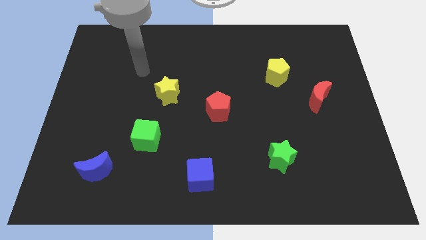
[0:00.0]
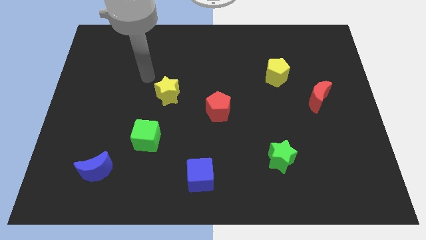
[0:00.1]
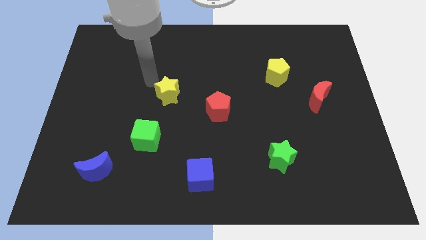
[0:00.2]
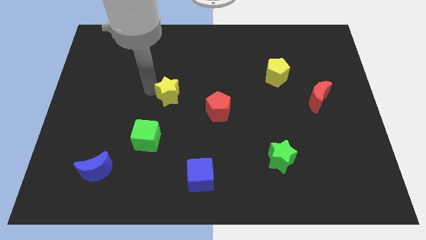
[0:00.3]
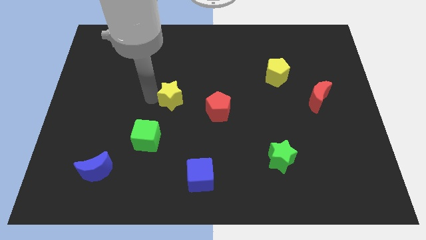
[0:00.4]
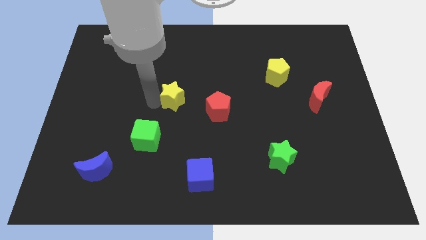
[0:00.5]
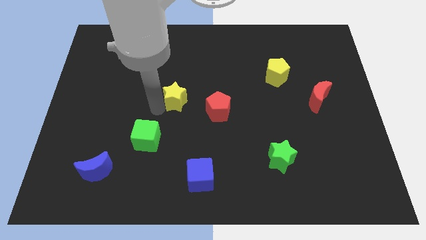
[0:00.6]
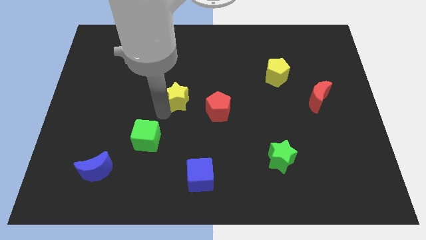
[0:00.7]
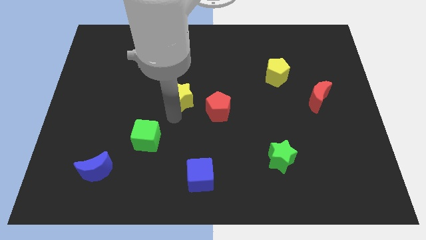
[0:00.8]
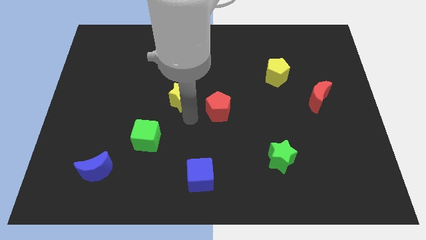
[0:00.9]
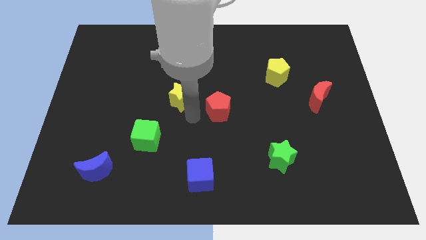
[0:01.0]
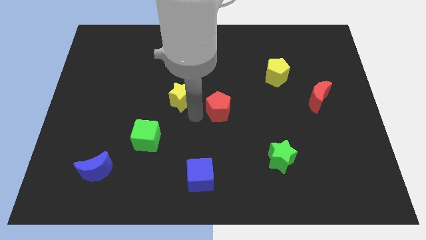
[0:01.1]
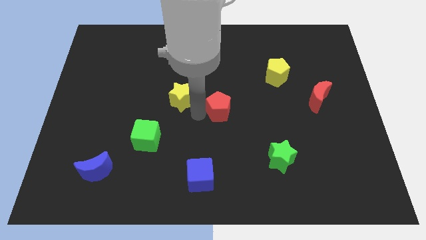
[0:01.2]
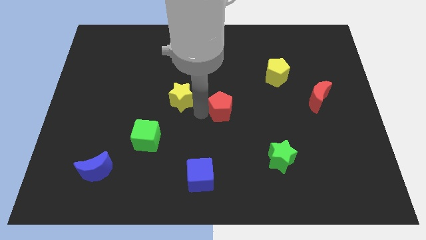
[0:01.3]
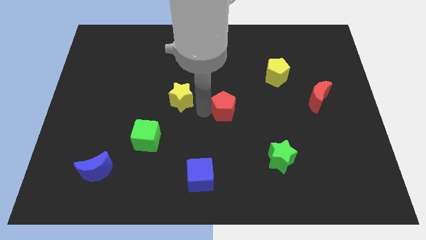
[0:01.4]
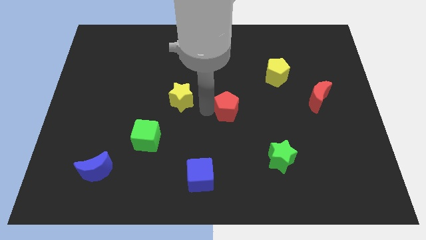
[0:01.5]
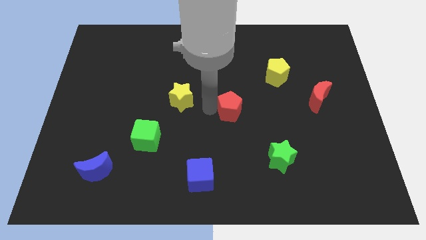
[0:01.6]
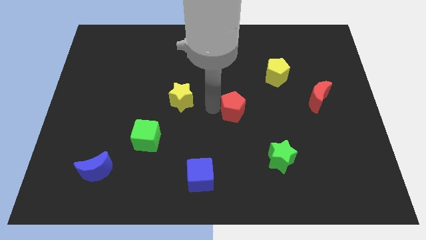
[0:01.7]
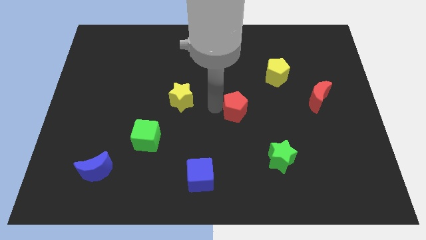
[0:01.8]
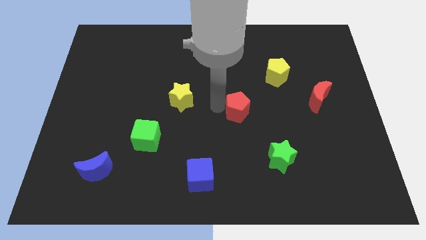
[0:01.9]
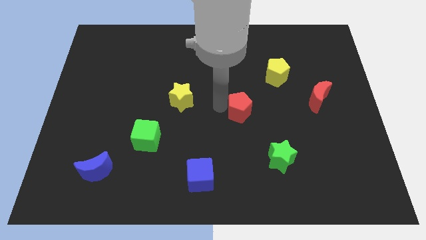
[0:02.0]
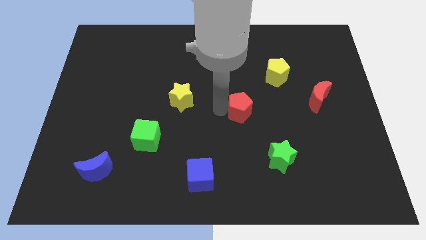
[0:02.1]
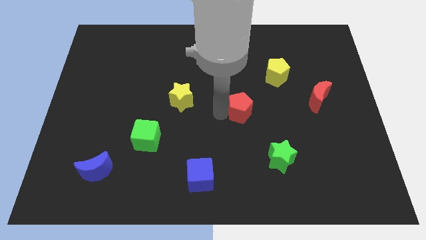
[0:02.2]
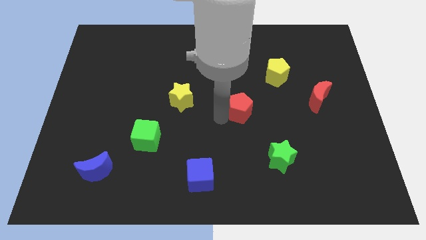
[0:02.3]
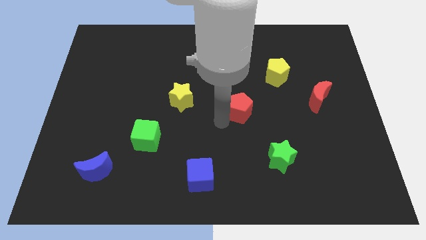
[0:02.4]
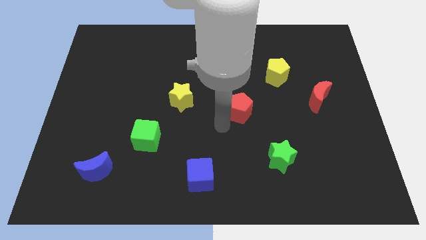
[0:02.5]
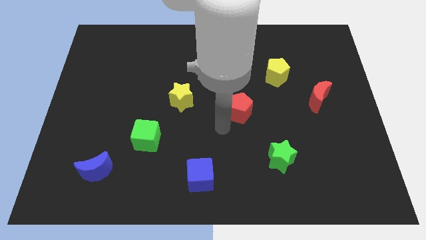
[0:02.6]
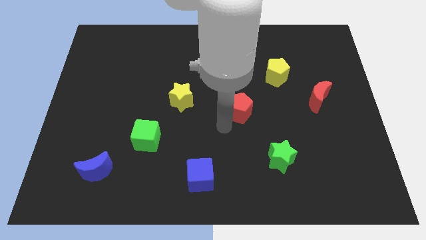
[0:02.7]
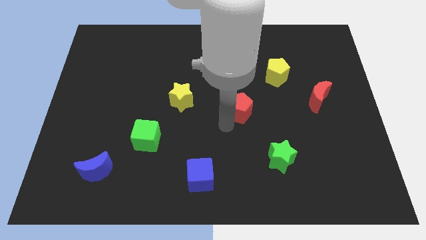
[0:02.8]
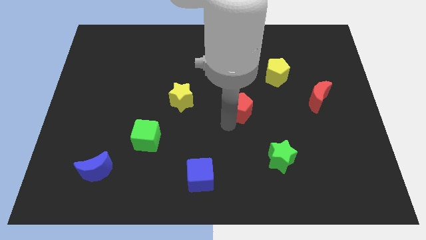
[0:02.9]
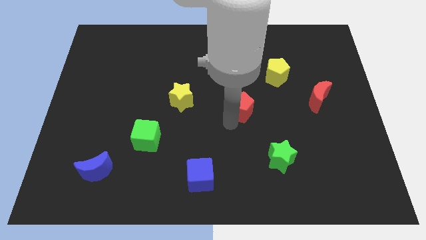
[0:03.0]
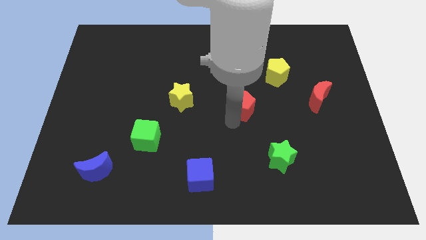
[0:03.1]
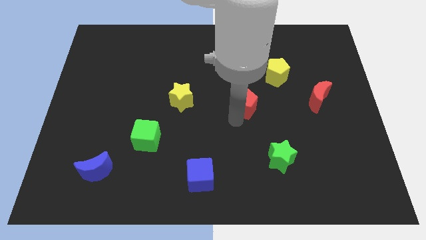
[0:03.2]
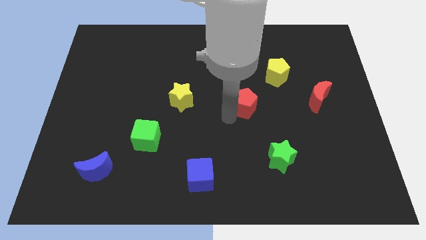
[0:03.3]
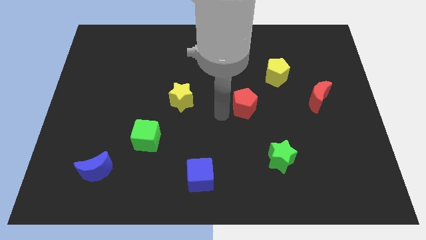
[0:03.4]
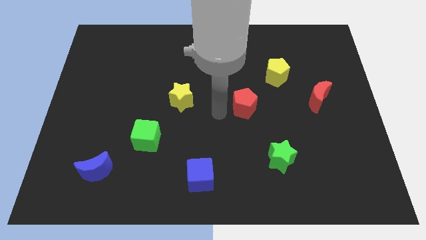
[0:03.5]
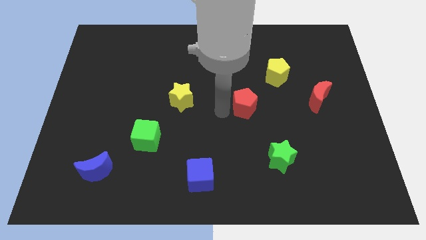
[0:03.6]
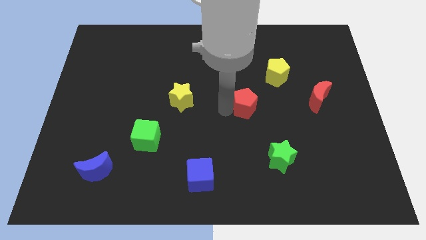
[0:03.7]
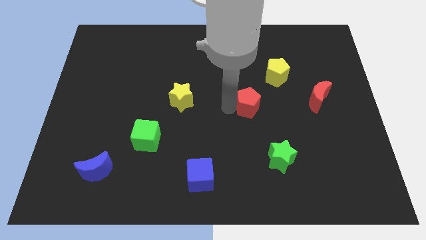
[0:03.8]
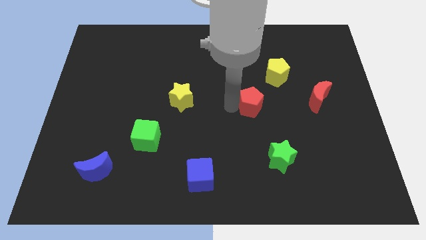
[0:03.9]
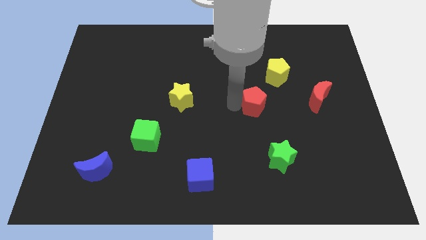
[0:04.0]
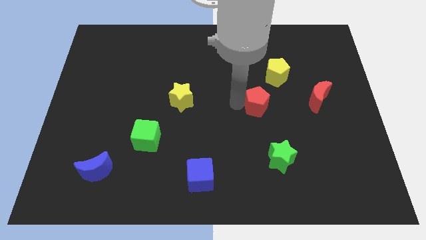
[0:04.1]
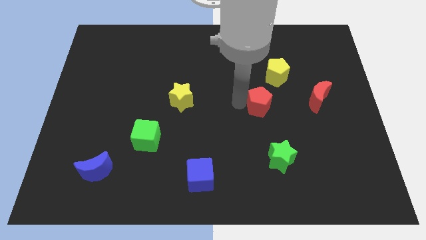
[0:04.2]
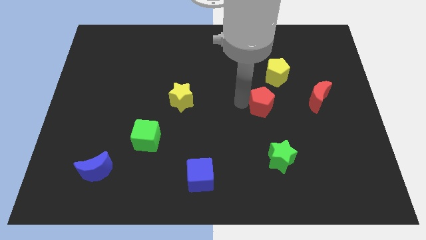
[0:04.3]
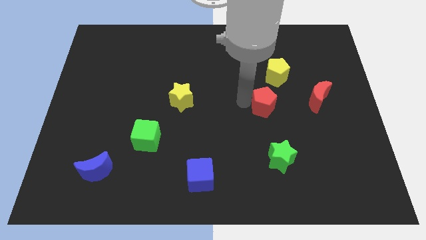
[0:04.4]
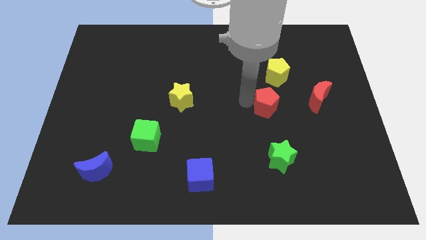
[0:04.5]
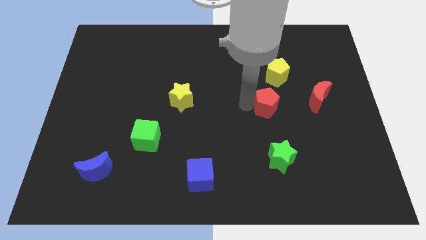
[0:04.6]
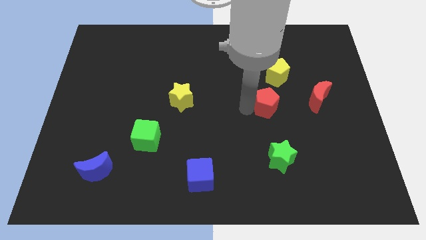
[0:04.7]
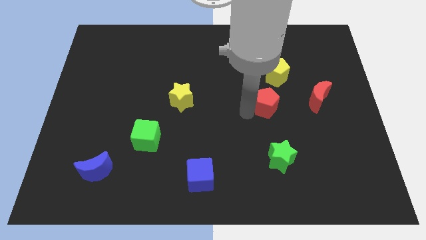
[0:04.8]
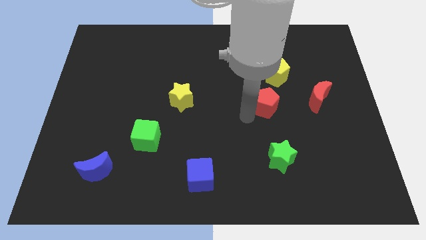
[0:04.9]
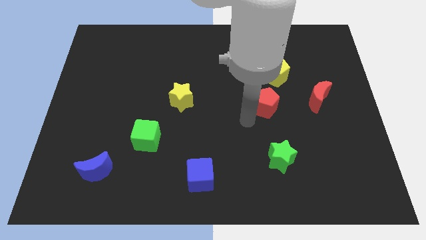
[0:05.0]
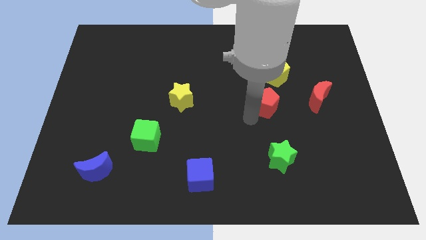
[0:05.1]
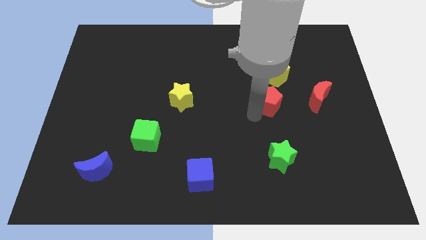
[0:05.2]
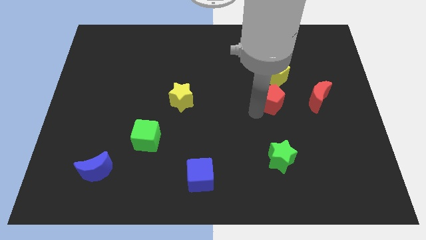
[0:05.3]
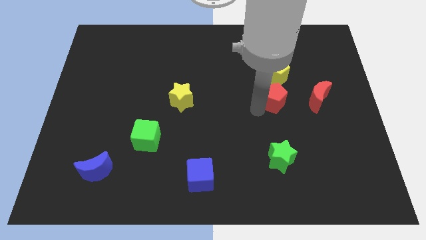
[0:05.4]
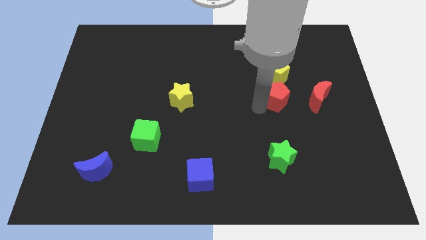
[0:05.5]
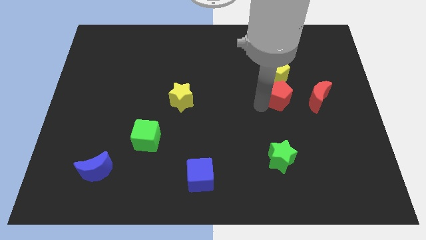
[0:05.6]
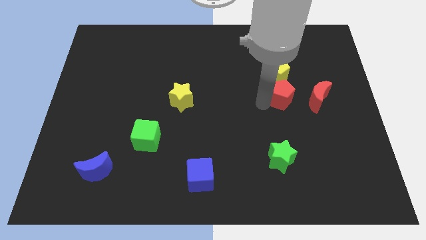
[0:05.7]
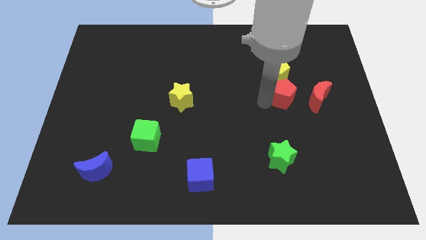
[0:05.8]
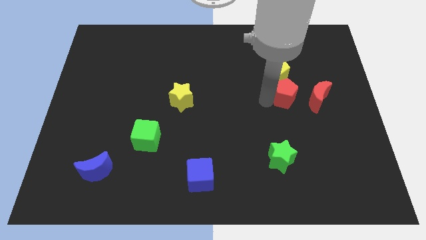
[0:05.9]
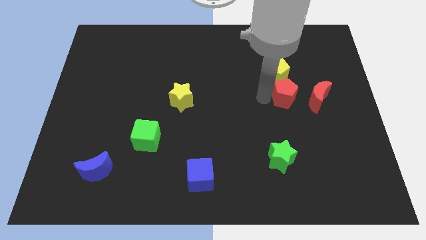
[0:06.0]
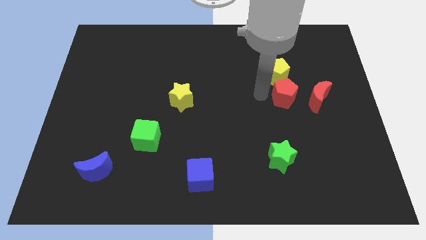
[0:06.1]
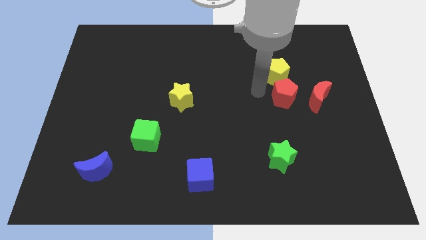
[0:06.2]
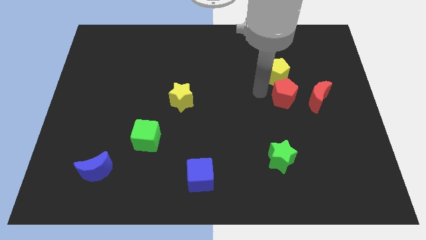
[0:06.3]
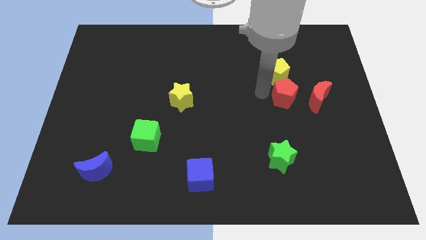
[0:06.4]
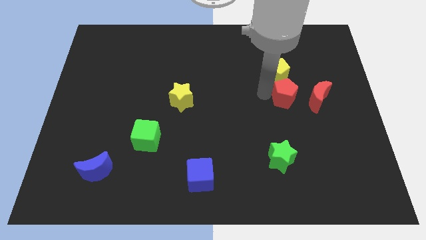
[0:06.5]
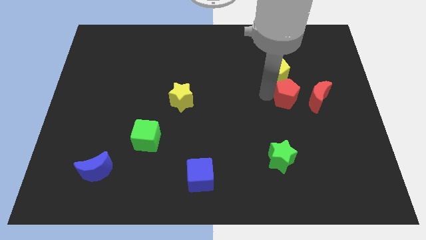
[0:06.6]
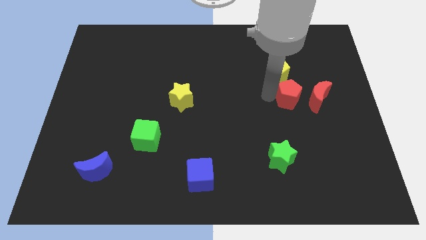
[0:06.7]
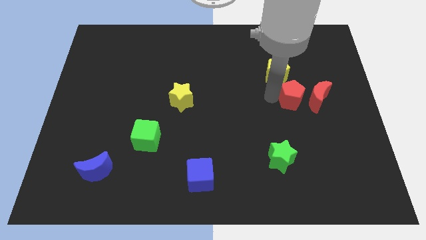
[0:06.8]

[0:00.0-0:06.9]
put the red pentagon towards the red moon

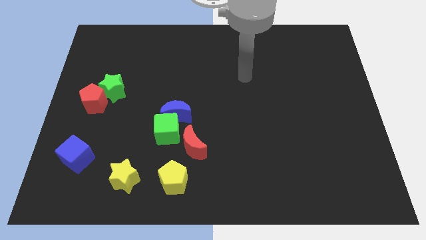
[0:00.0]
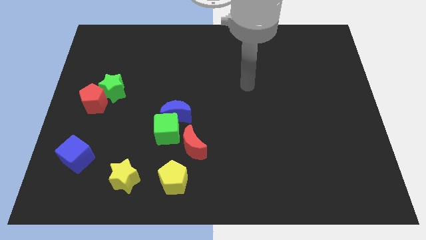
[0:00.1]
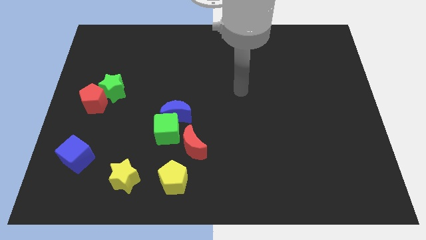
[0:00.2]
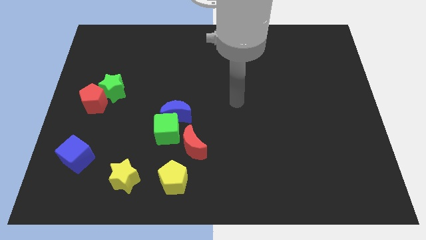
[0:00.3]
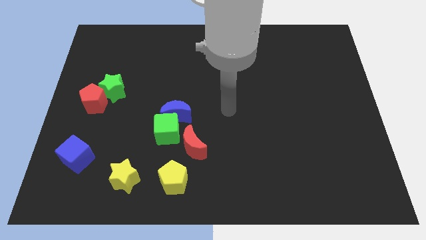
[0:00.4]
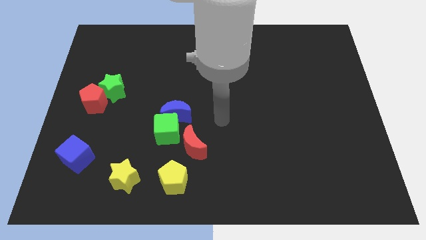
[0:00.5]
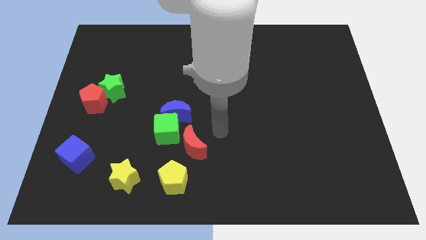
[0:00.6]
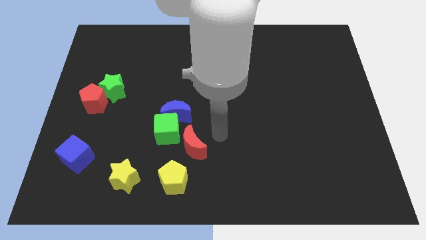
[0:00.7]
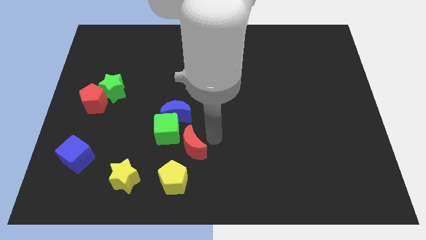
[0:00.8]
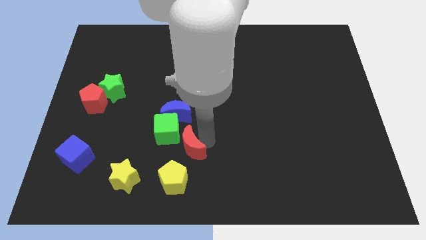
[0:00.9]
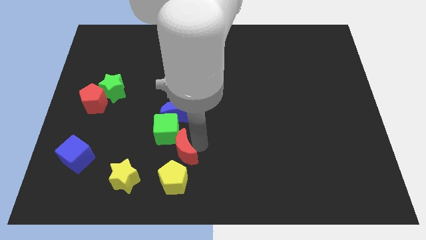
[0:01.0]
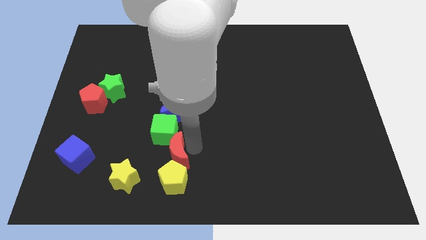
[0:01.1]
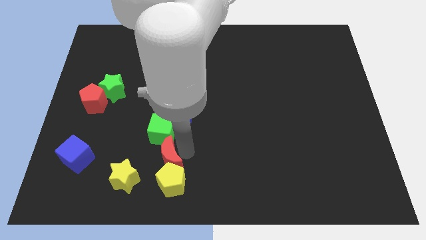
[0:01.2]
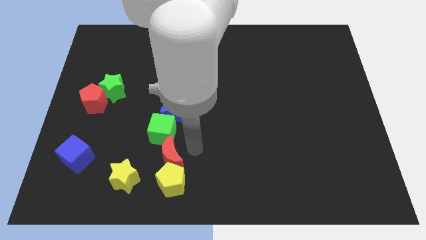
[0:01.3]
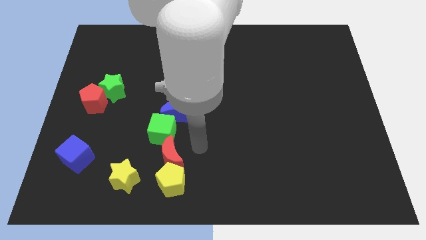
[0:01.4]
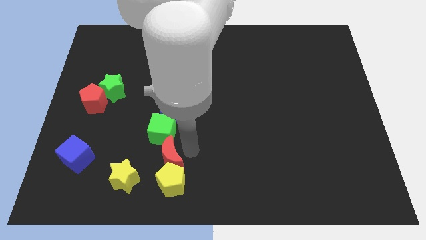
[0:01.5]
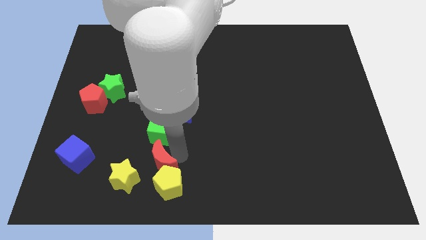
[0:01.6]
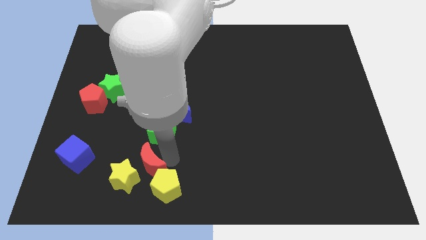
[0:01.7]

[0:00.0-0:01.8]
push the red moon next to the yellow star
